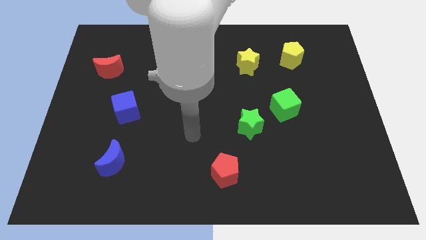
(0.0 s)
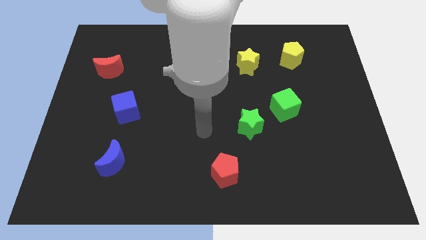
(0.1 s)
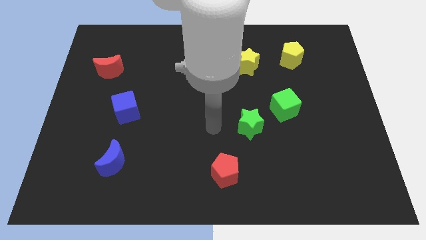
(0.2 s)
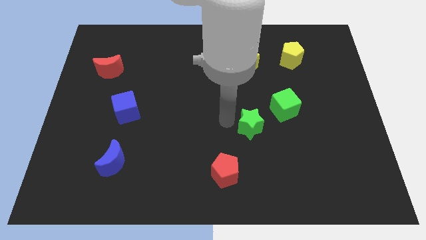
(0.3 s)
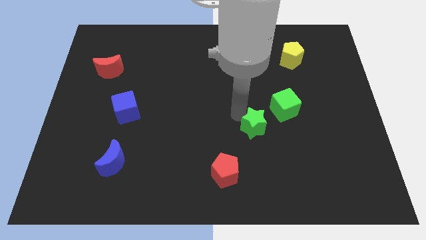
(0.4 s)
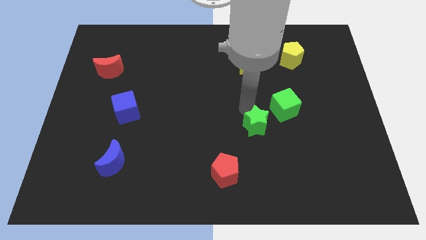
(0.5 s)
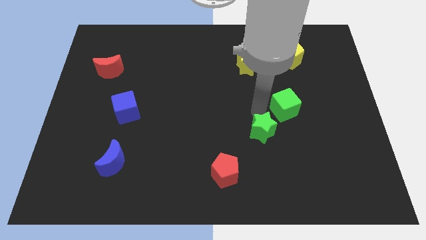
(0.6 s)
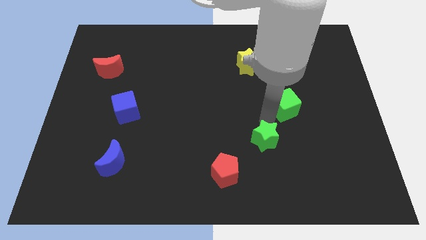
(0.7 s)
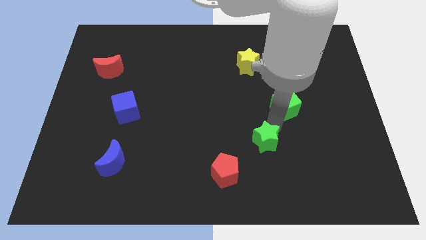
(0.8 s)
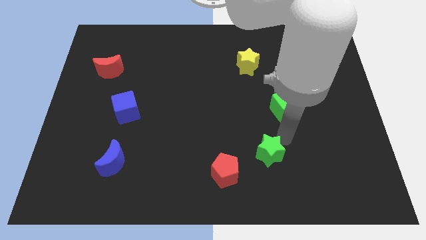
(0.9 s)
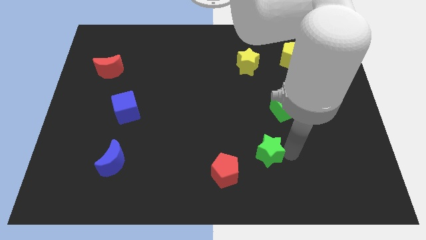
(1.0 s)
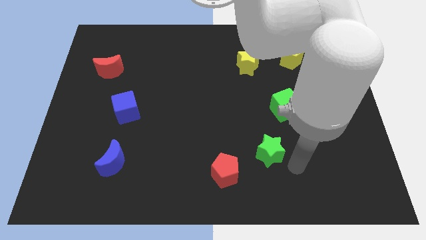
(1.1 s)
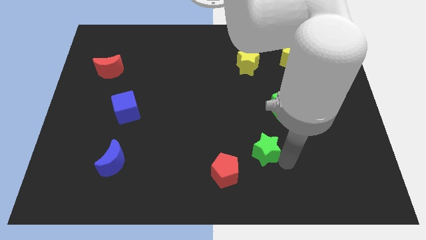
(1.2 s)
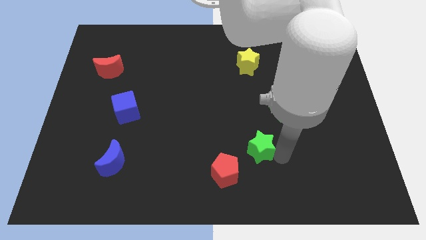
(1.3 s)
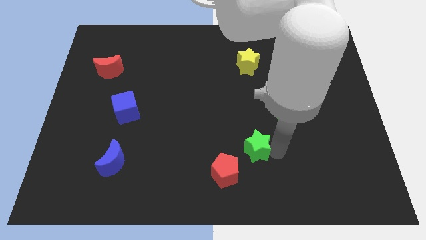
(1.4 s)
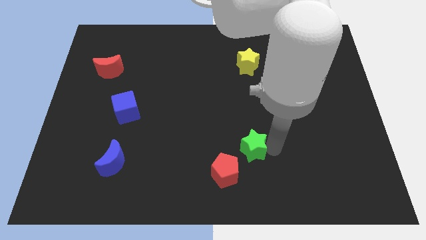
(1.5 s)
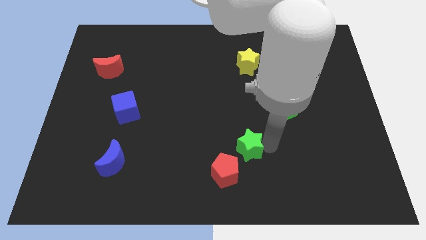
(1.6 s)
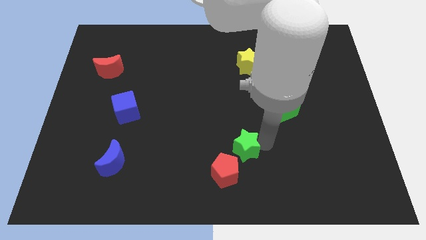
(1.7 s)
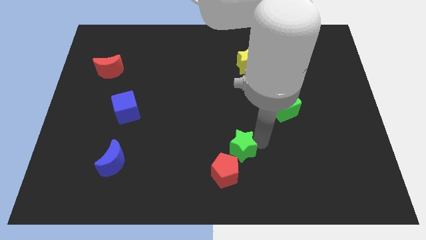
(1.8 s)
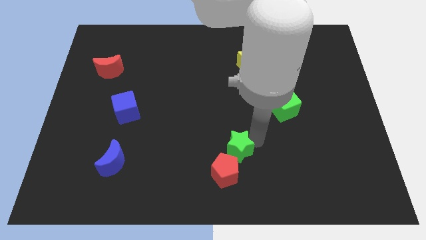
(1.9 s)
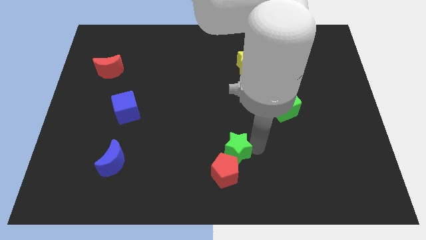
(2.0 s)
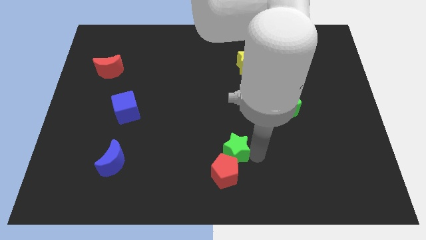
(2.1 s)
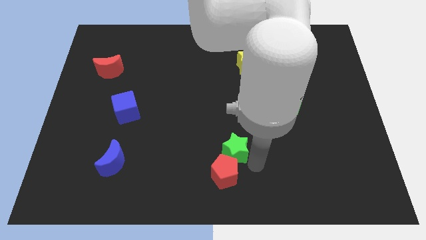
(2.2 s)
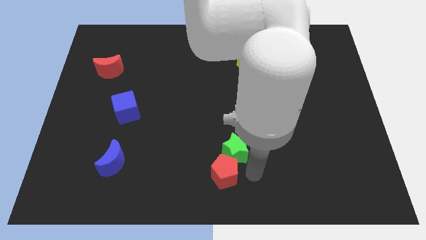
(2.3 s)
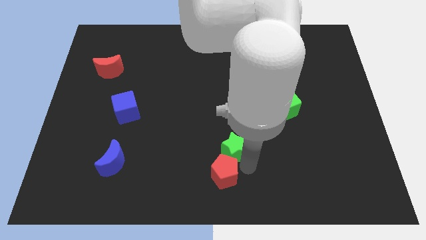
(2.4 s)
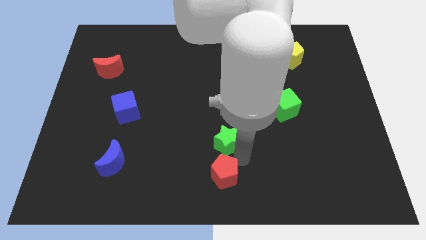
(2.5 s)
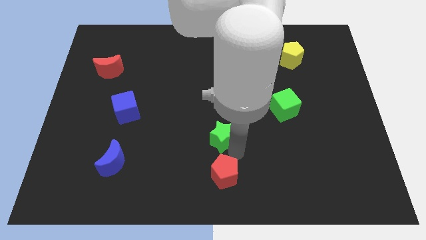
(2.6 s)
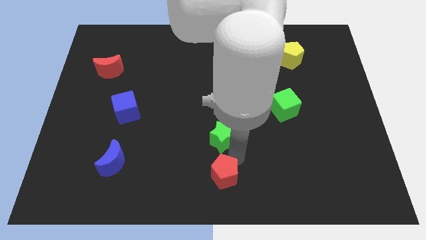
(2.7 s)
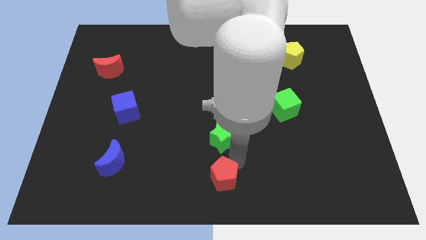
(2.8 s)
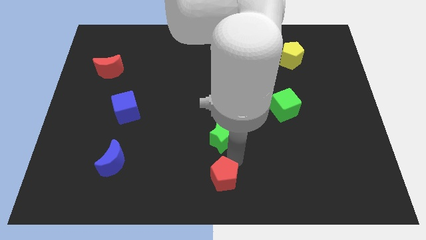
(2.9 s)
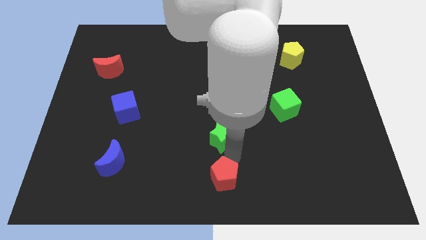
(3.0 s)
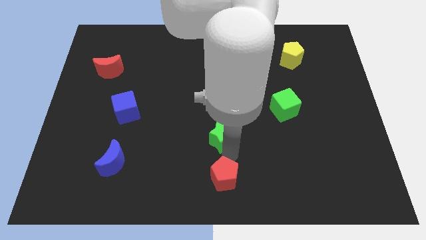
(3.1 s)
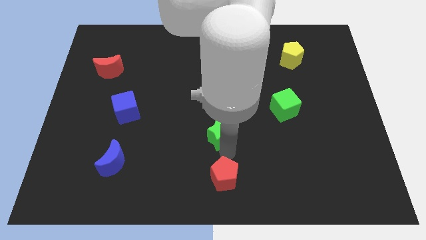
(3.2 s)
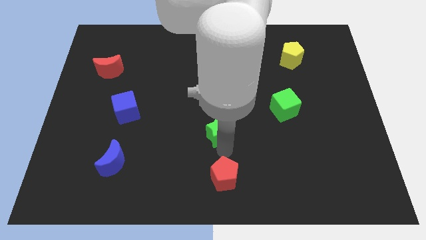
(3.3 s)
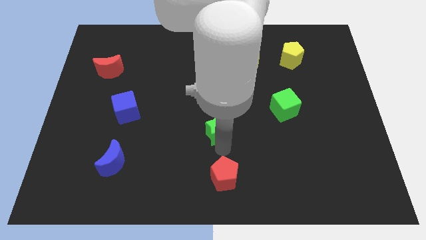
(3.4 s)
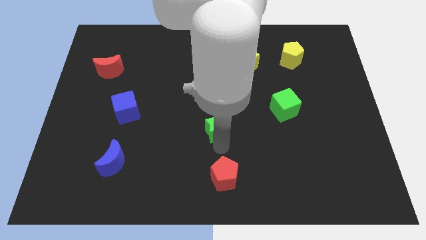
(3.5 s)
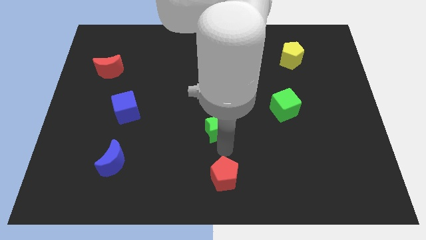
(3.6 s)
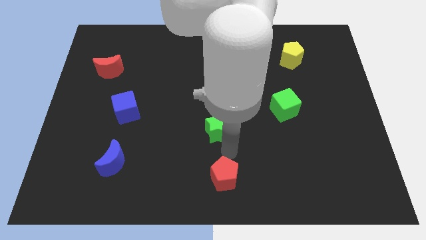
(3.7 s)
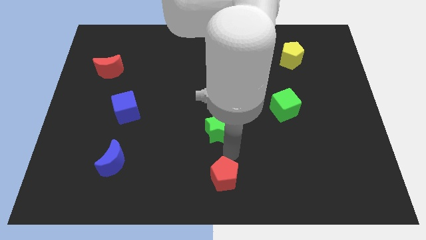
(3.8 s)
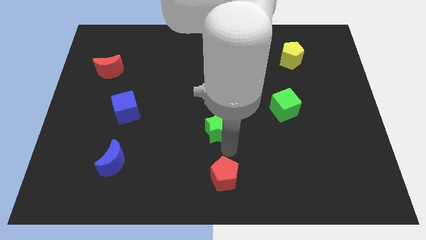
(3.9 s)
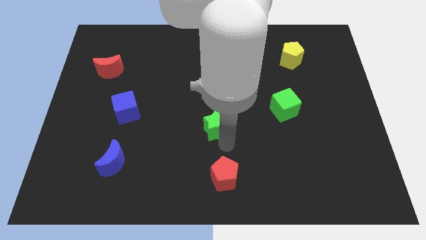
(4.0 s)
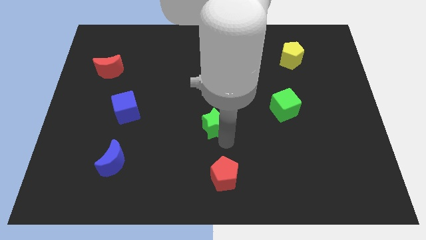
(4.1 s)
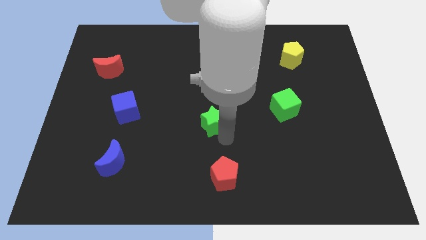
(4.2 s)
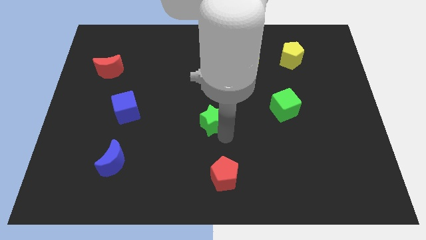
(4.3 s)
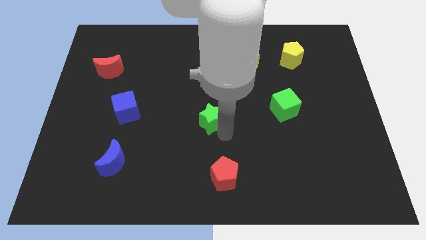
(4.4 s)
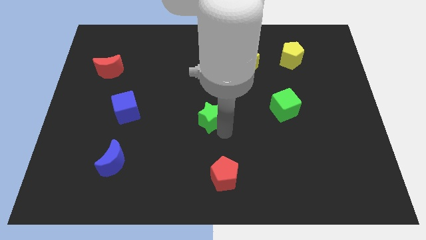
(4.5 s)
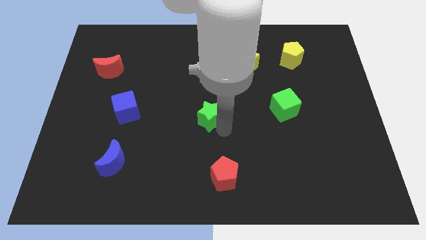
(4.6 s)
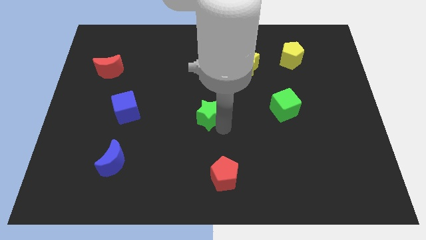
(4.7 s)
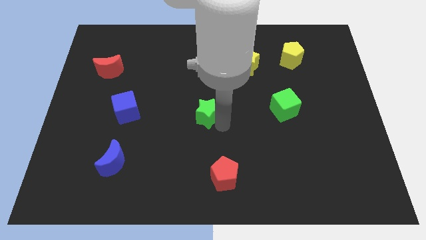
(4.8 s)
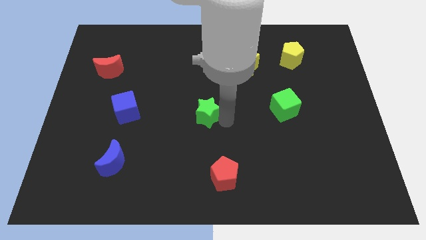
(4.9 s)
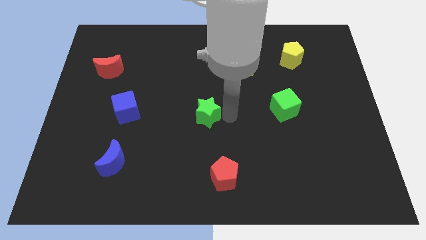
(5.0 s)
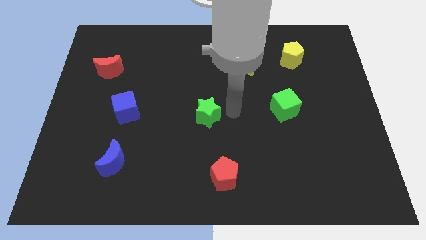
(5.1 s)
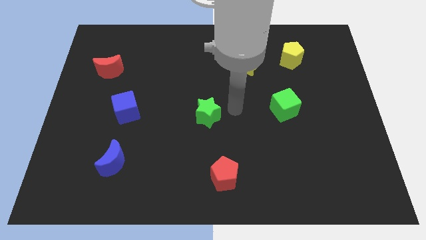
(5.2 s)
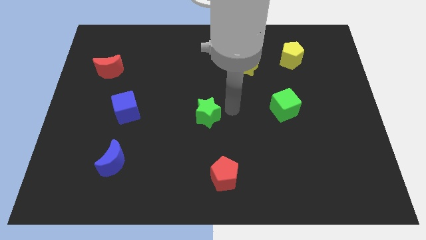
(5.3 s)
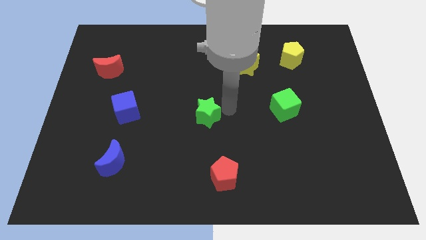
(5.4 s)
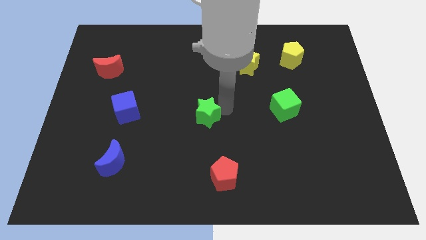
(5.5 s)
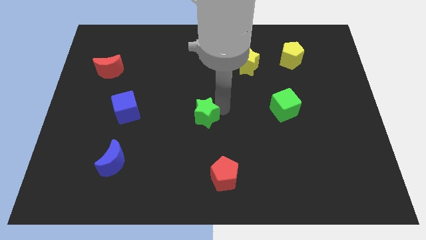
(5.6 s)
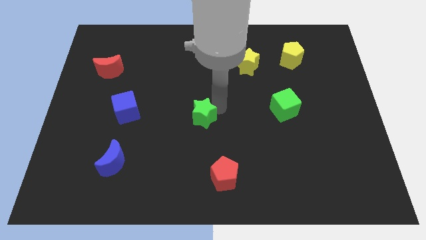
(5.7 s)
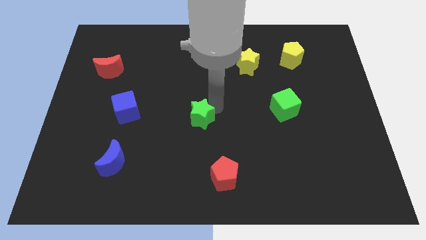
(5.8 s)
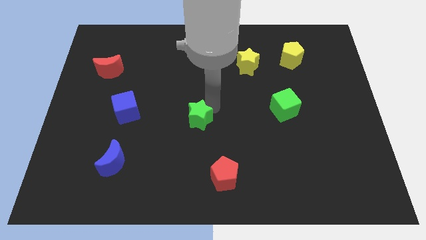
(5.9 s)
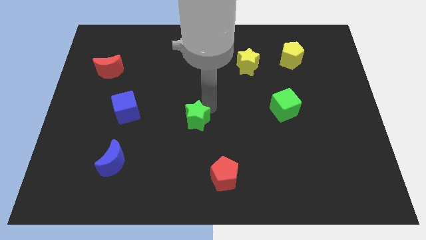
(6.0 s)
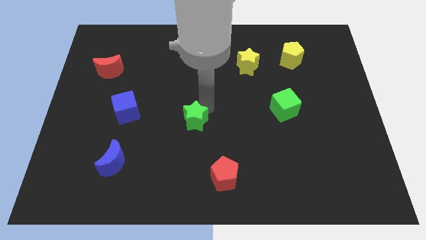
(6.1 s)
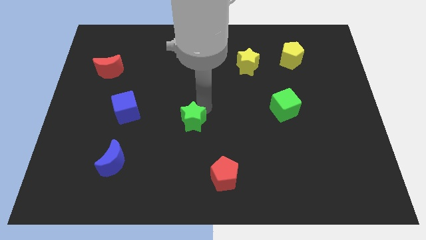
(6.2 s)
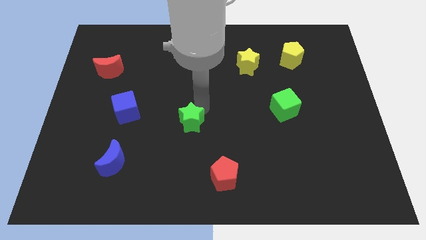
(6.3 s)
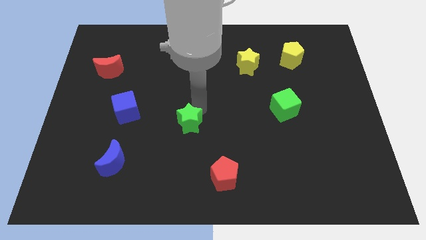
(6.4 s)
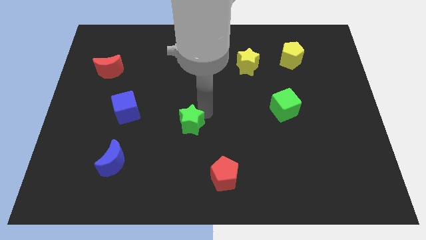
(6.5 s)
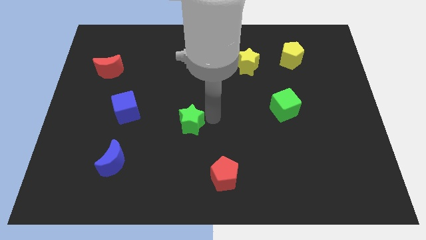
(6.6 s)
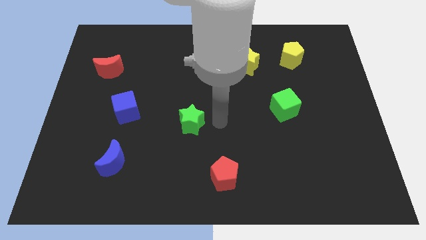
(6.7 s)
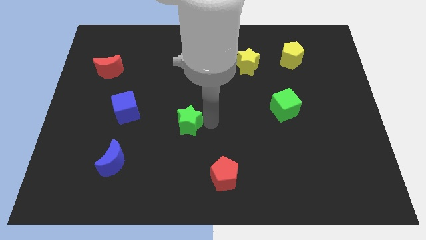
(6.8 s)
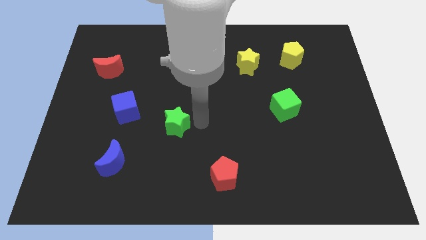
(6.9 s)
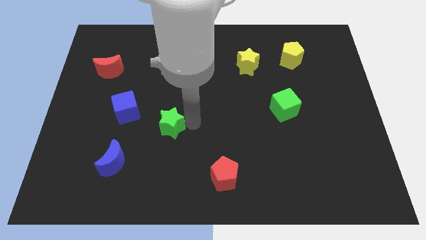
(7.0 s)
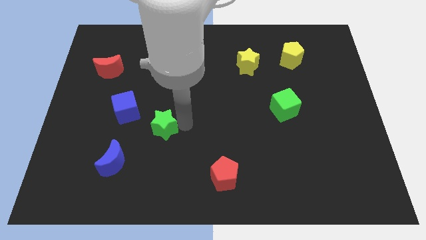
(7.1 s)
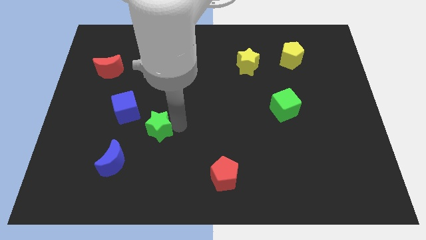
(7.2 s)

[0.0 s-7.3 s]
push the green star left

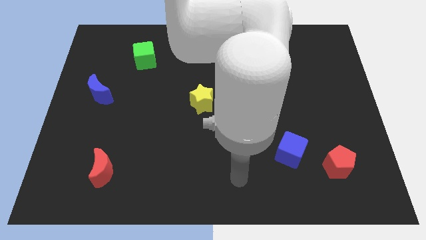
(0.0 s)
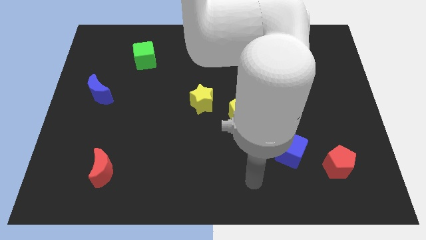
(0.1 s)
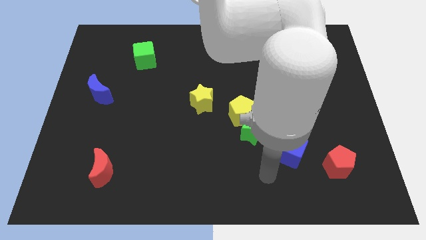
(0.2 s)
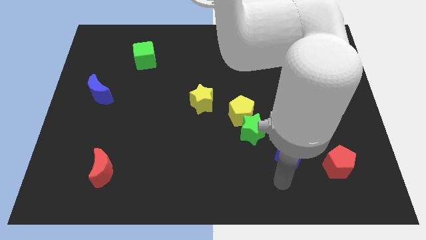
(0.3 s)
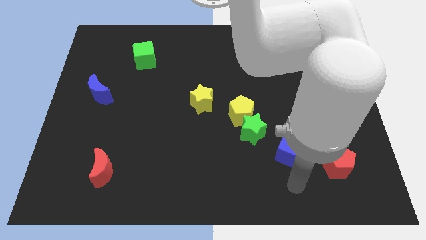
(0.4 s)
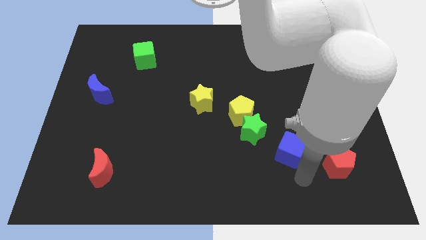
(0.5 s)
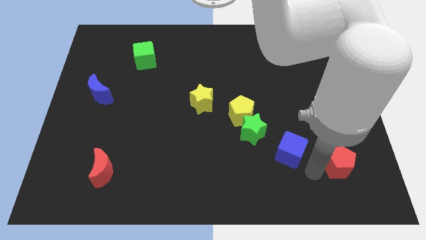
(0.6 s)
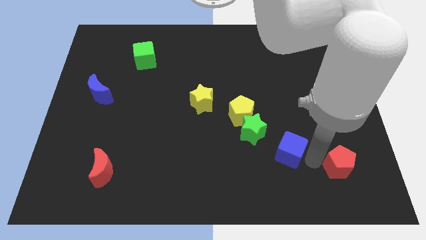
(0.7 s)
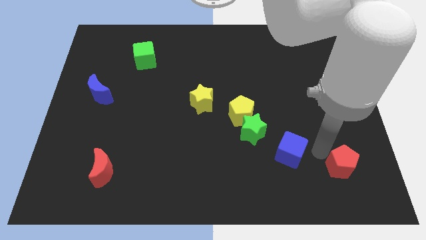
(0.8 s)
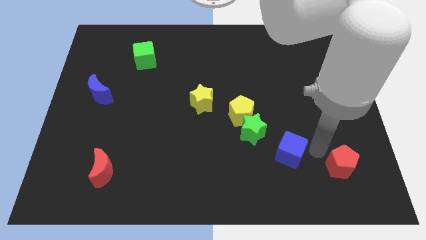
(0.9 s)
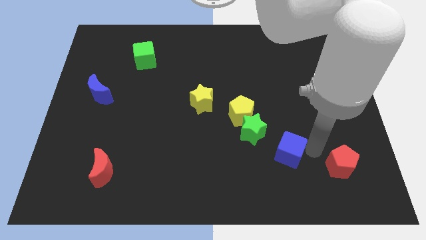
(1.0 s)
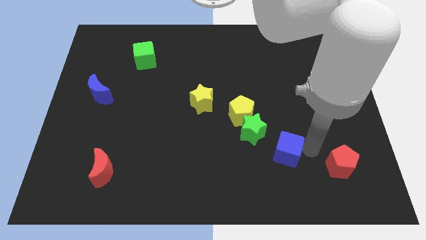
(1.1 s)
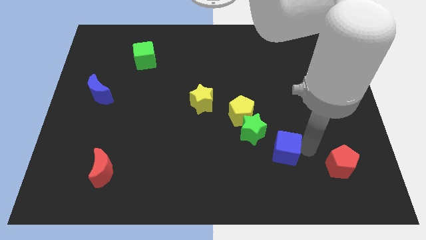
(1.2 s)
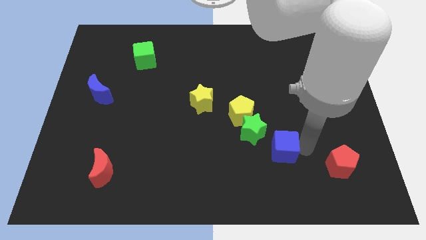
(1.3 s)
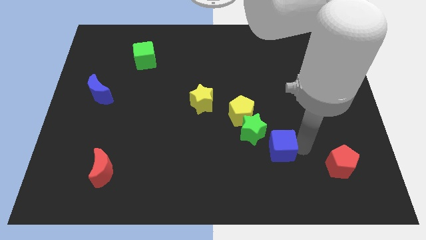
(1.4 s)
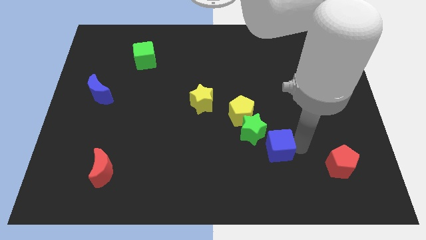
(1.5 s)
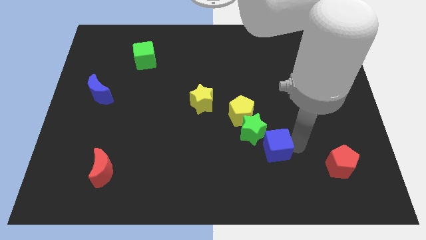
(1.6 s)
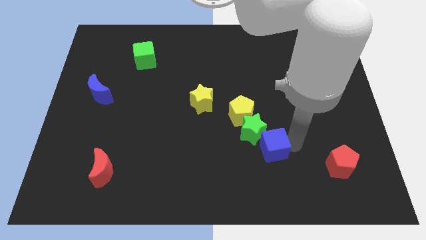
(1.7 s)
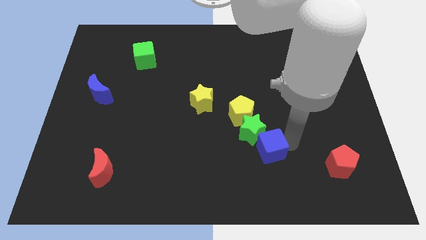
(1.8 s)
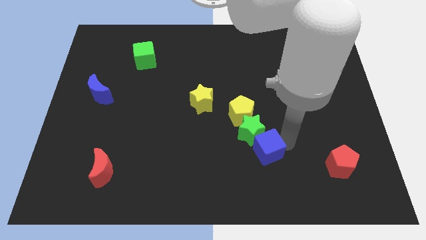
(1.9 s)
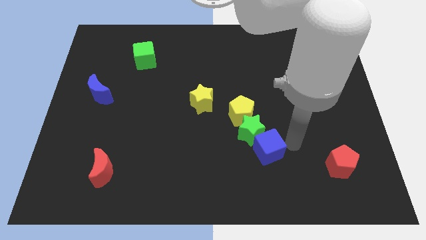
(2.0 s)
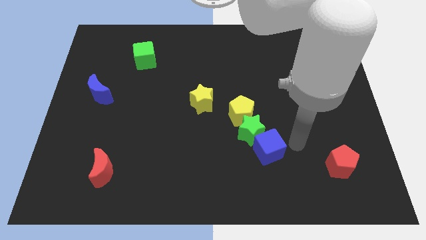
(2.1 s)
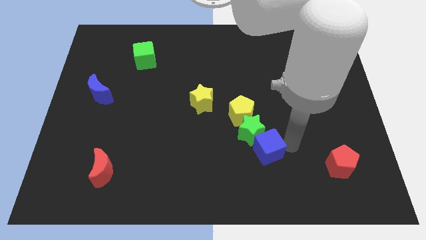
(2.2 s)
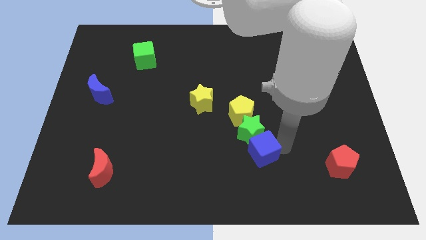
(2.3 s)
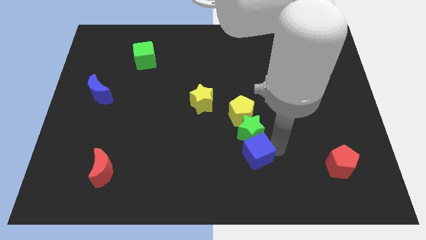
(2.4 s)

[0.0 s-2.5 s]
push the blue cube a little bit to the left
